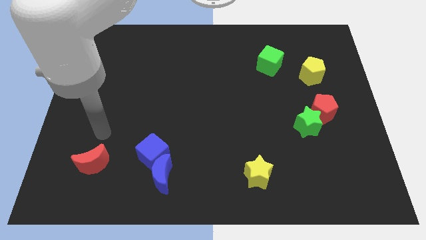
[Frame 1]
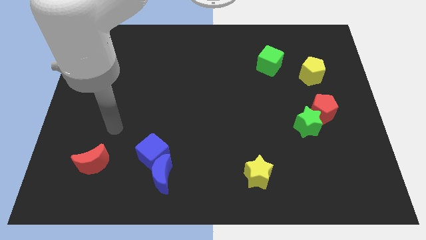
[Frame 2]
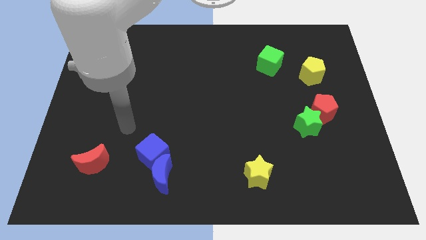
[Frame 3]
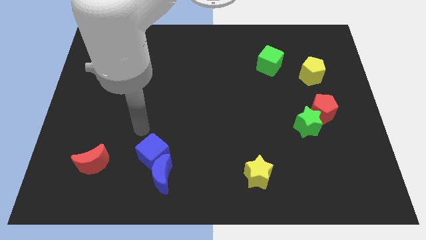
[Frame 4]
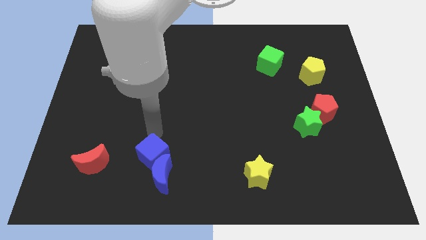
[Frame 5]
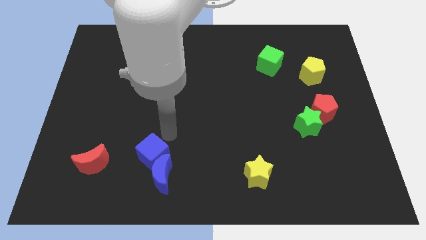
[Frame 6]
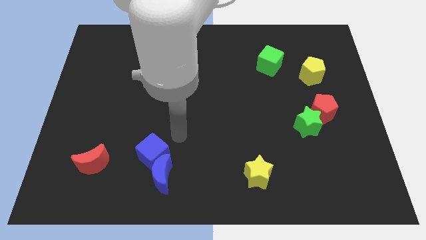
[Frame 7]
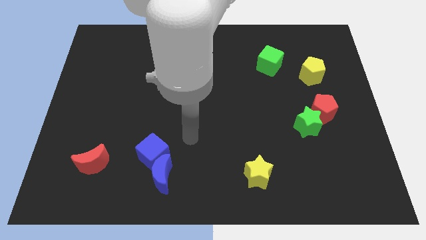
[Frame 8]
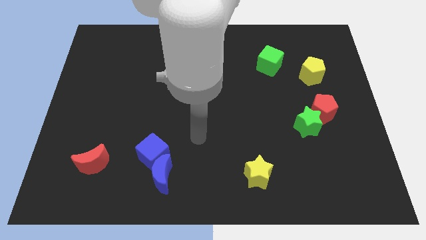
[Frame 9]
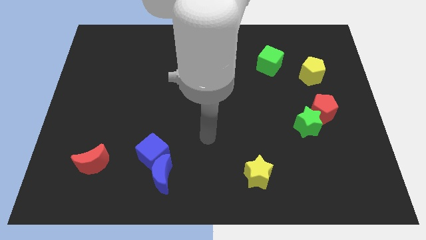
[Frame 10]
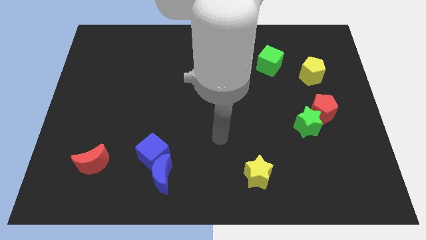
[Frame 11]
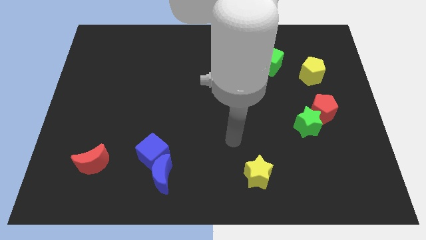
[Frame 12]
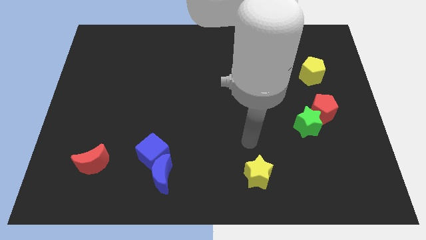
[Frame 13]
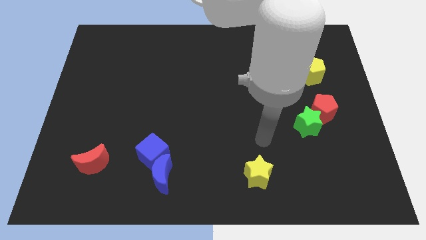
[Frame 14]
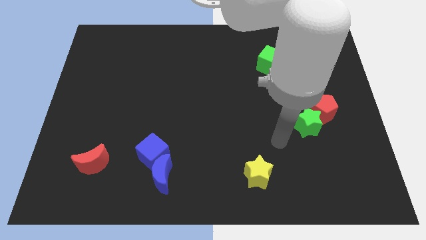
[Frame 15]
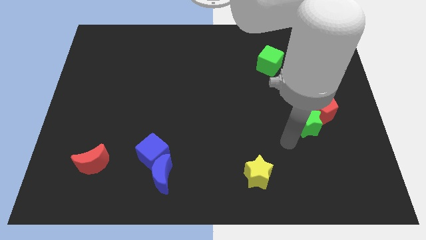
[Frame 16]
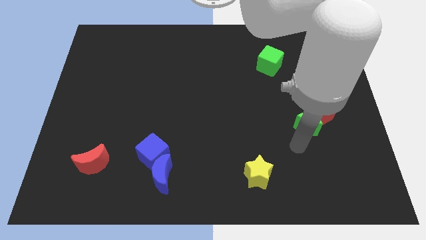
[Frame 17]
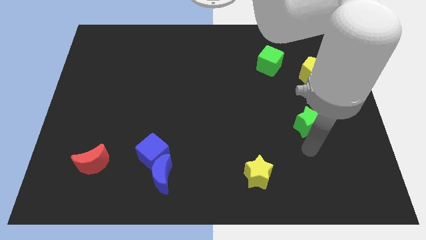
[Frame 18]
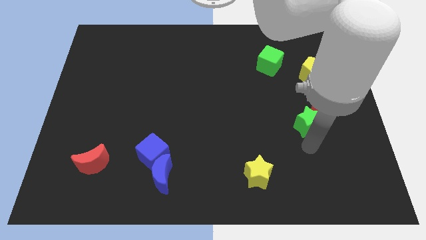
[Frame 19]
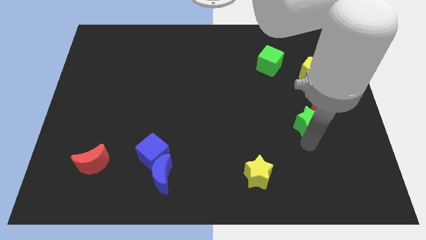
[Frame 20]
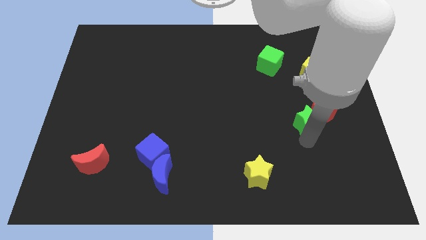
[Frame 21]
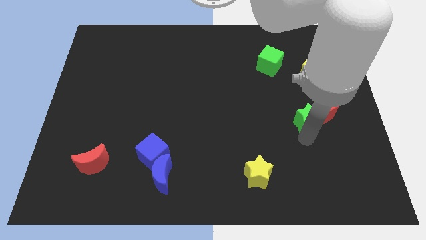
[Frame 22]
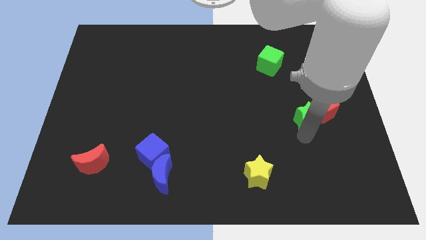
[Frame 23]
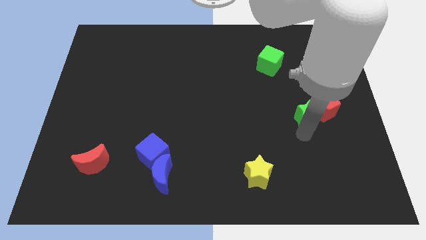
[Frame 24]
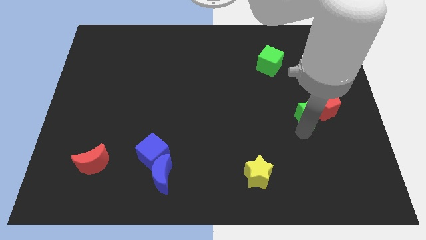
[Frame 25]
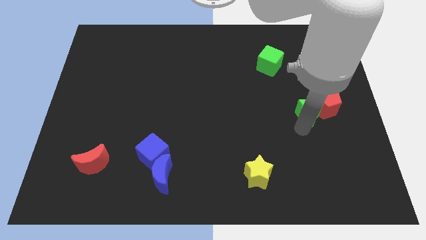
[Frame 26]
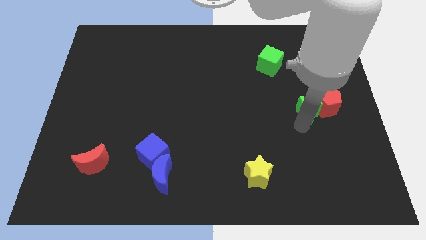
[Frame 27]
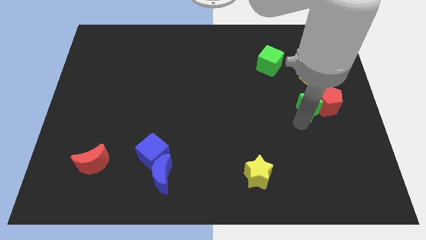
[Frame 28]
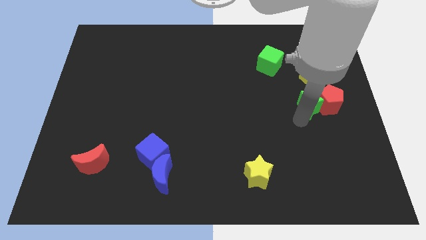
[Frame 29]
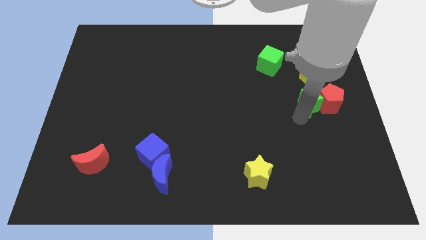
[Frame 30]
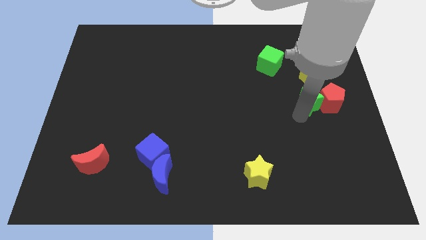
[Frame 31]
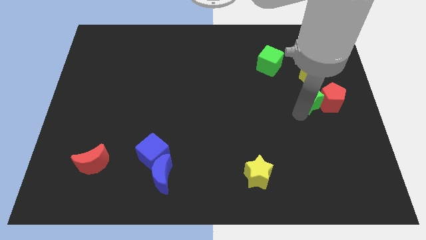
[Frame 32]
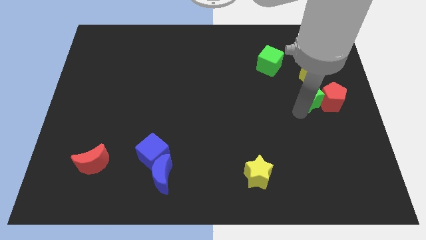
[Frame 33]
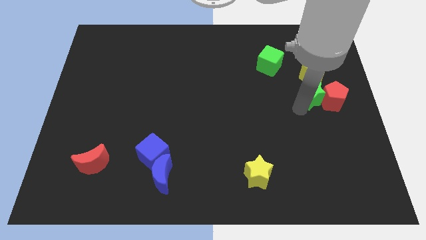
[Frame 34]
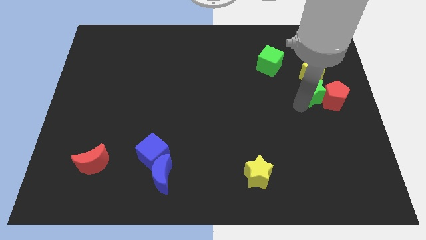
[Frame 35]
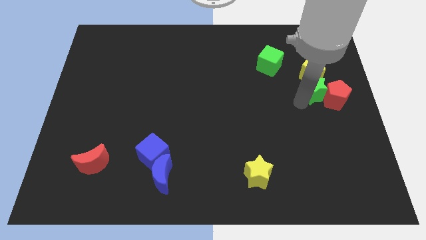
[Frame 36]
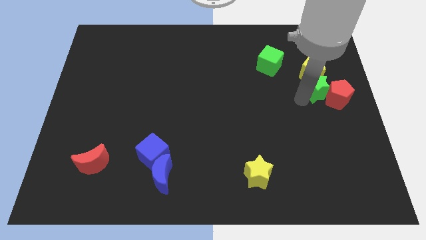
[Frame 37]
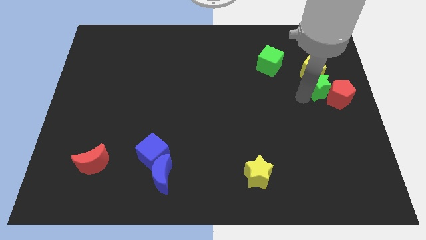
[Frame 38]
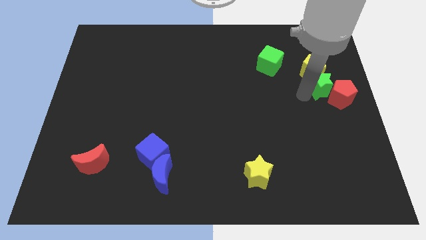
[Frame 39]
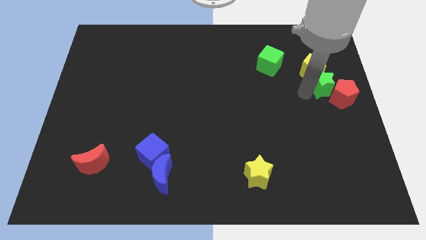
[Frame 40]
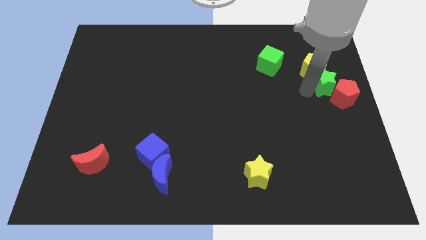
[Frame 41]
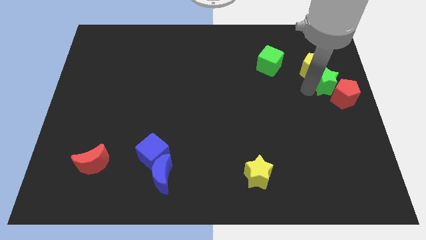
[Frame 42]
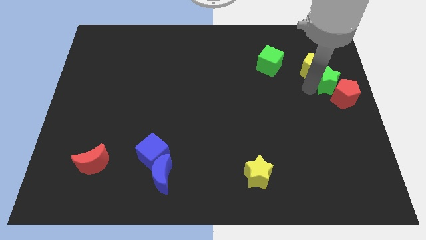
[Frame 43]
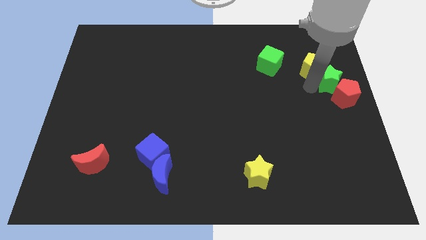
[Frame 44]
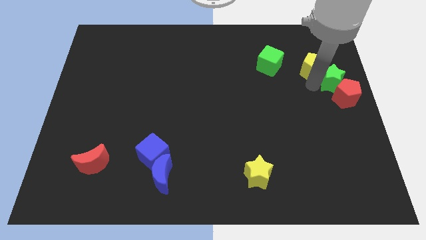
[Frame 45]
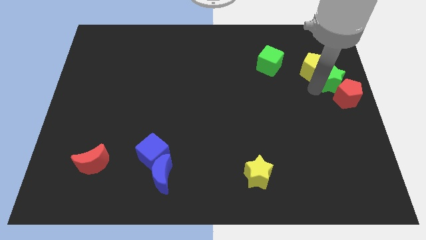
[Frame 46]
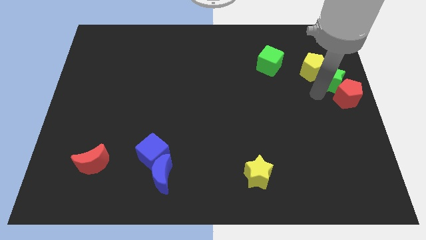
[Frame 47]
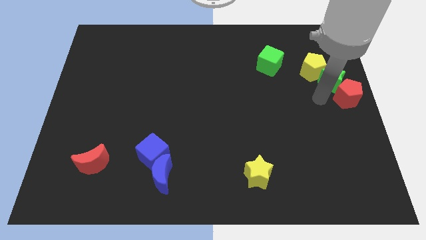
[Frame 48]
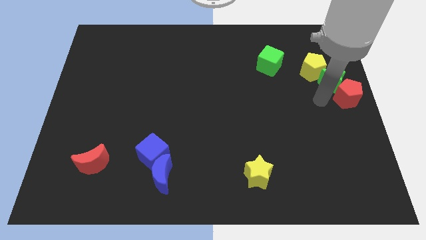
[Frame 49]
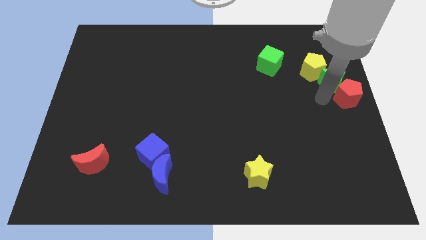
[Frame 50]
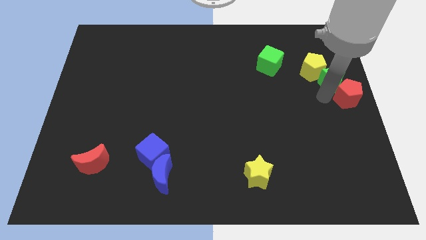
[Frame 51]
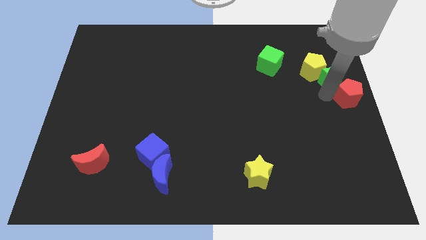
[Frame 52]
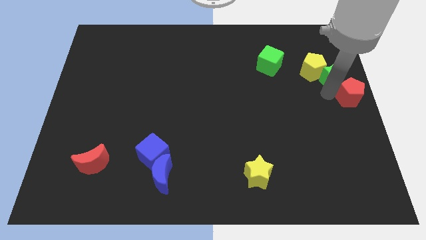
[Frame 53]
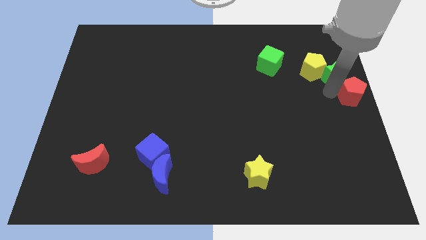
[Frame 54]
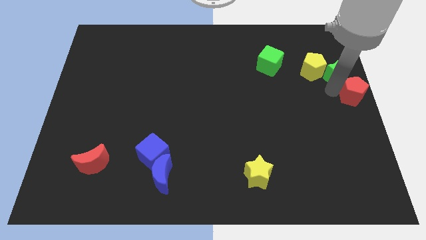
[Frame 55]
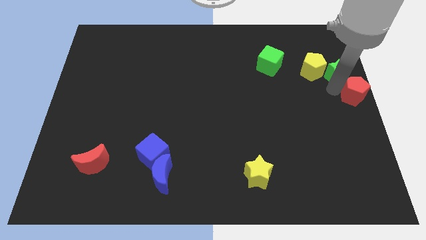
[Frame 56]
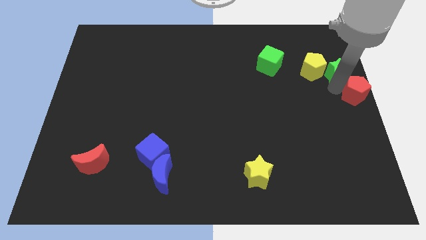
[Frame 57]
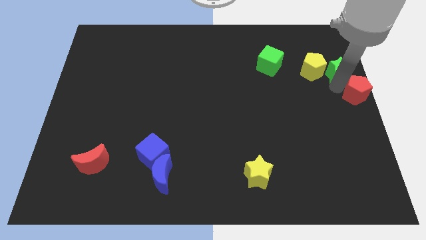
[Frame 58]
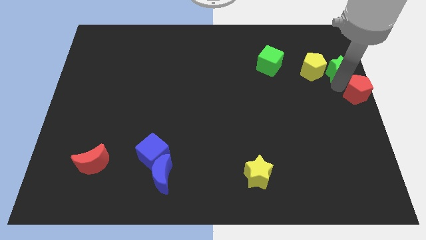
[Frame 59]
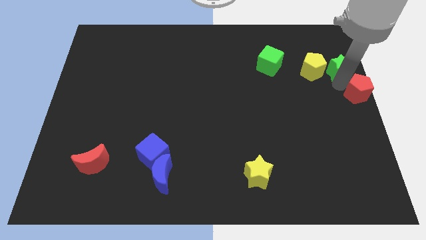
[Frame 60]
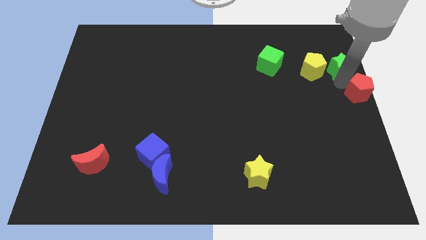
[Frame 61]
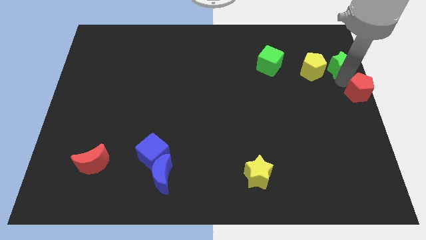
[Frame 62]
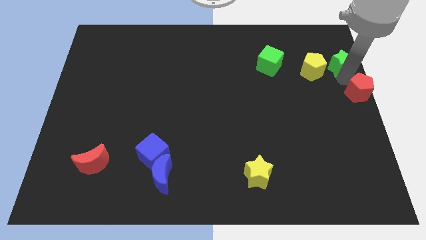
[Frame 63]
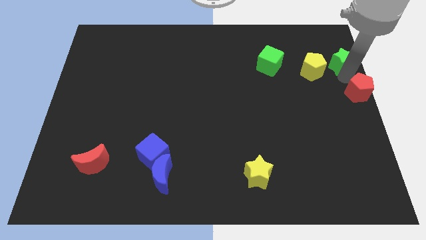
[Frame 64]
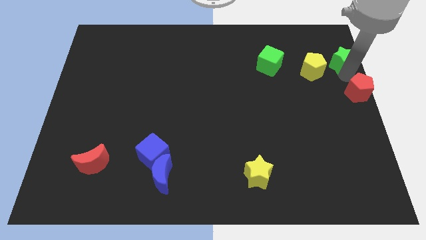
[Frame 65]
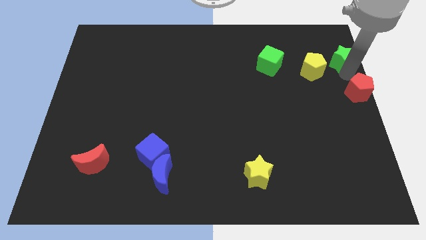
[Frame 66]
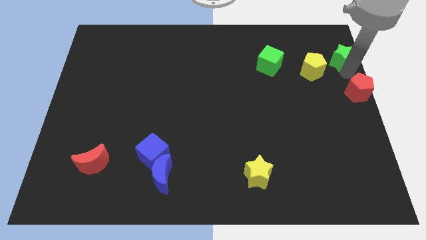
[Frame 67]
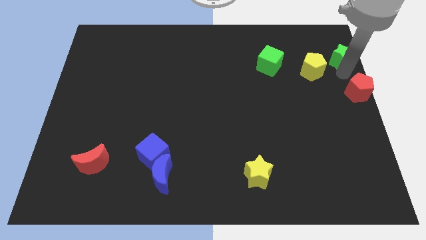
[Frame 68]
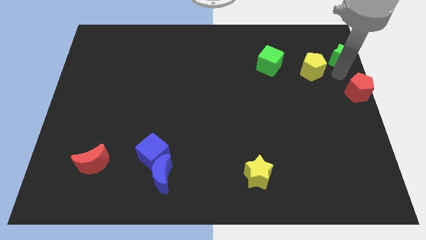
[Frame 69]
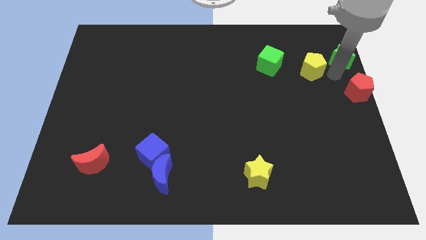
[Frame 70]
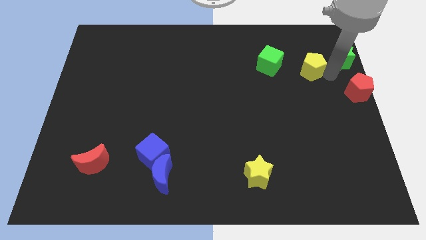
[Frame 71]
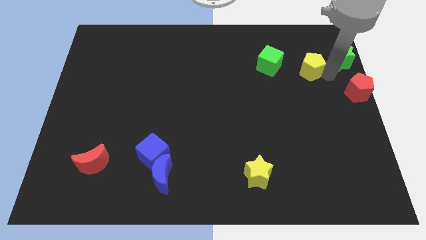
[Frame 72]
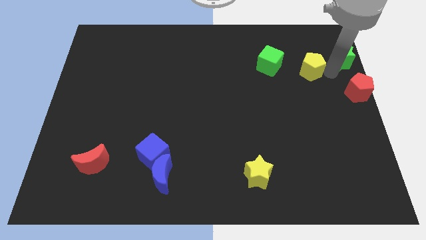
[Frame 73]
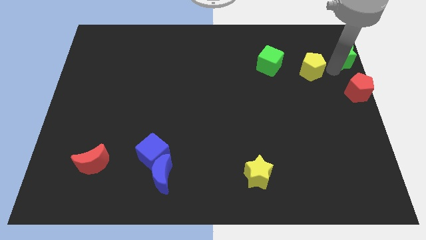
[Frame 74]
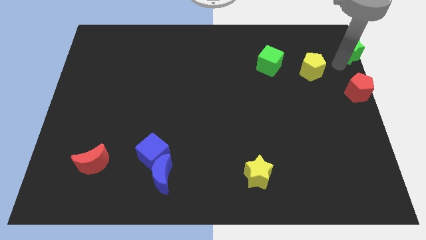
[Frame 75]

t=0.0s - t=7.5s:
put the green star to the top right
